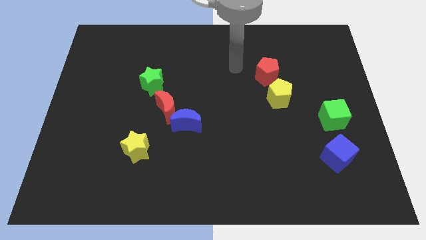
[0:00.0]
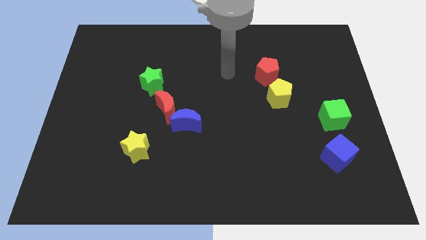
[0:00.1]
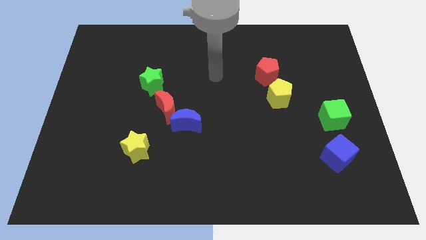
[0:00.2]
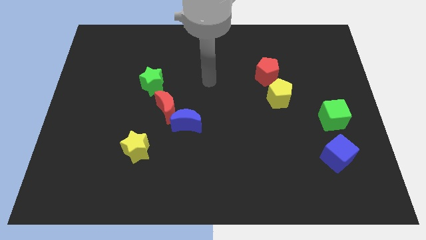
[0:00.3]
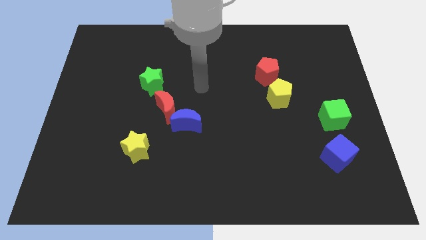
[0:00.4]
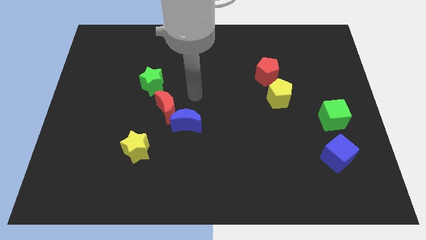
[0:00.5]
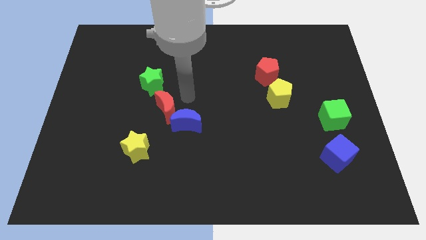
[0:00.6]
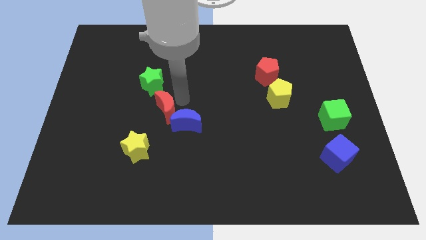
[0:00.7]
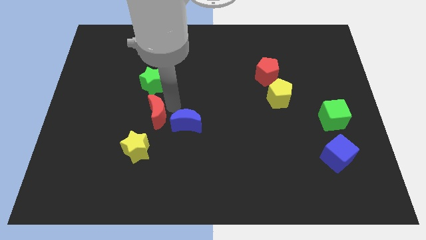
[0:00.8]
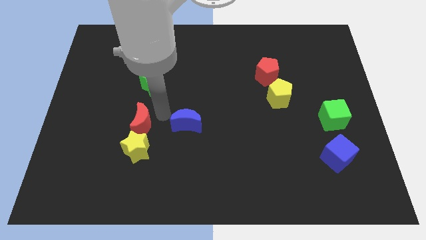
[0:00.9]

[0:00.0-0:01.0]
move the blue moon away from the red moon

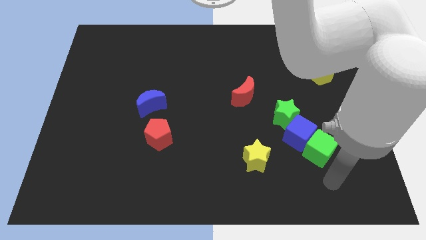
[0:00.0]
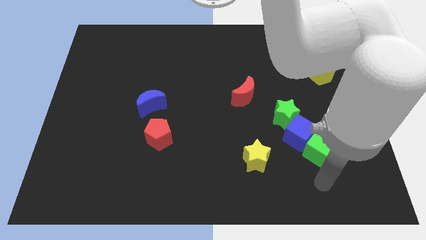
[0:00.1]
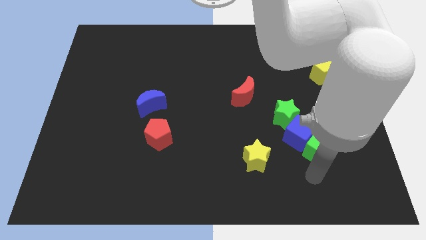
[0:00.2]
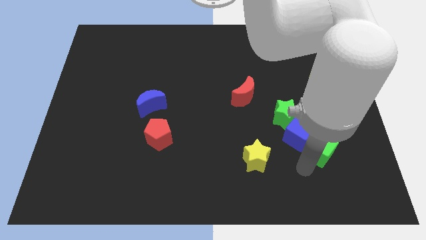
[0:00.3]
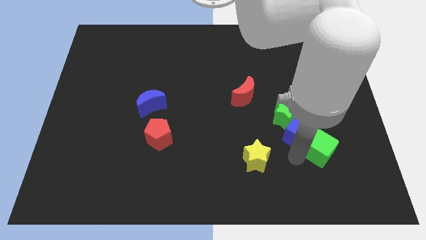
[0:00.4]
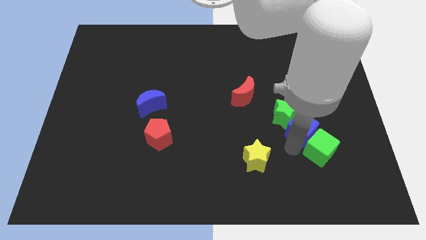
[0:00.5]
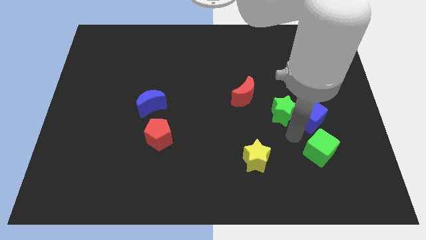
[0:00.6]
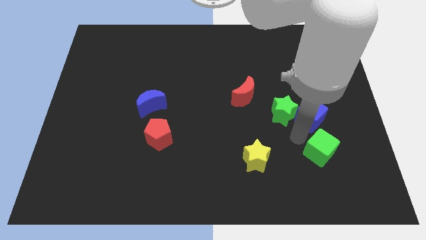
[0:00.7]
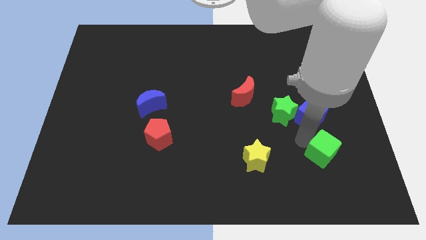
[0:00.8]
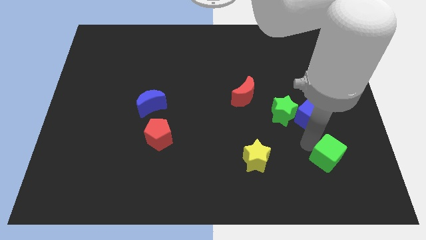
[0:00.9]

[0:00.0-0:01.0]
pull the green cube apart from the blue cube

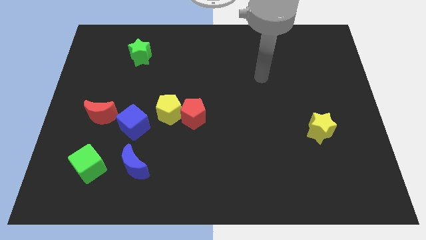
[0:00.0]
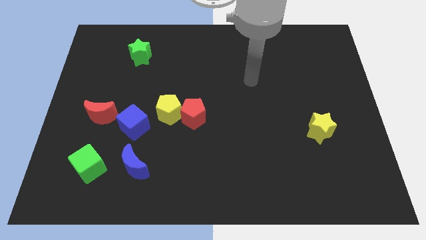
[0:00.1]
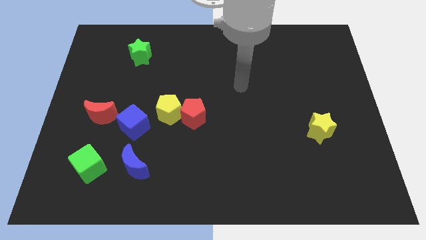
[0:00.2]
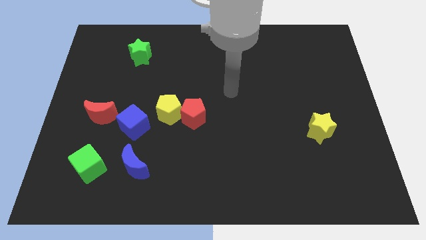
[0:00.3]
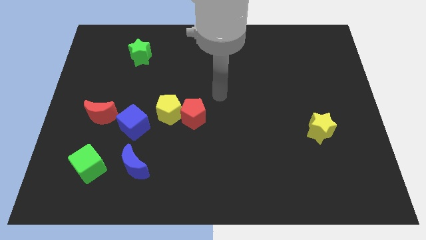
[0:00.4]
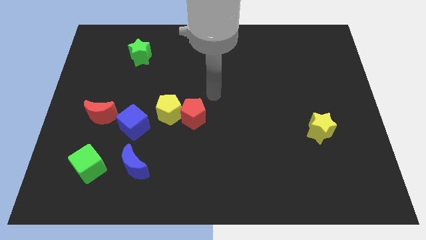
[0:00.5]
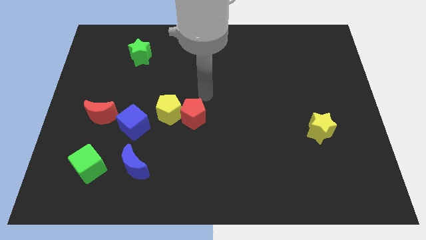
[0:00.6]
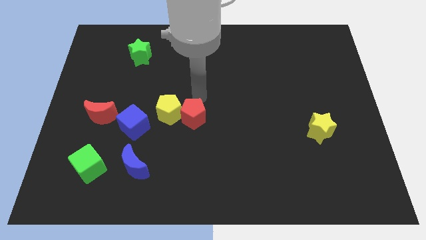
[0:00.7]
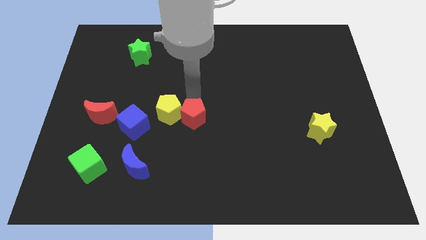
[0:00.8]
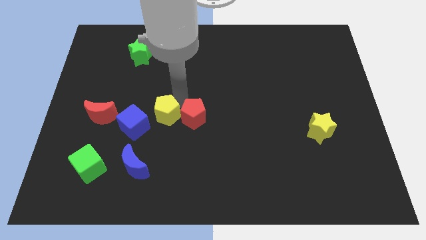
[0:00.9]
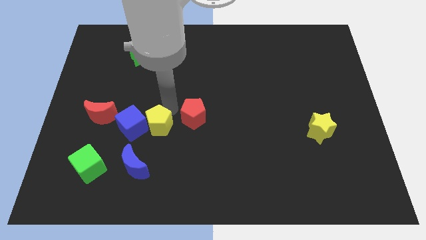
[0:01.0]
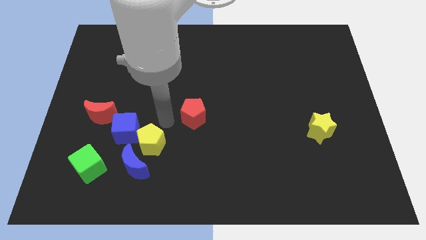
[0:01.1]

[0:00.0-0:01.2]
move the red pentagon away from the yellow pentagon

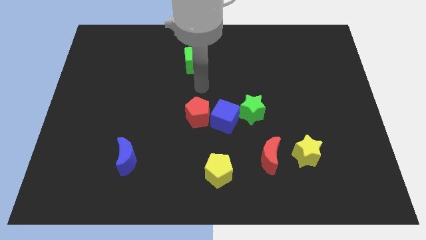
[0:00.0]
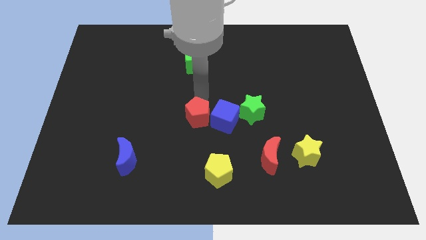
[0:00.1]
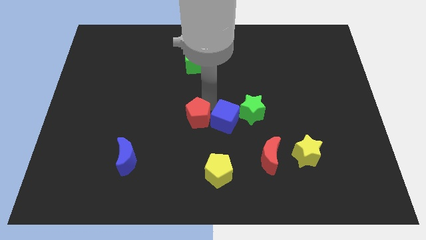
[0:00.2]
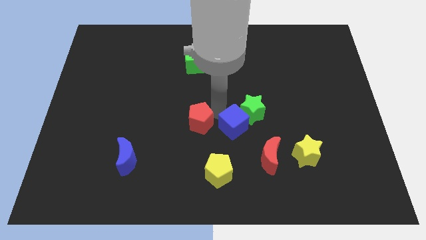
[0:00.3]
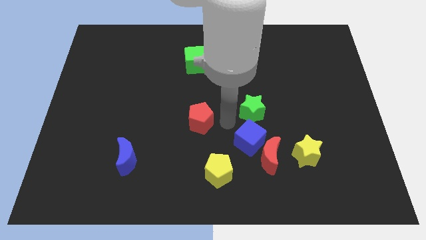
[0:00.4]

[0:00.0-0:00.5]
separate the red pentagon from the blue cube

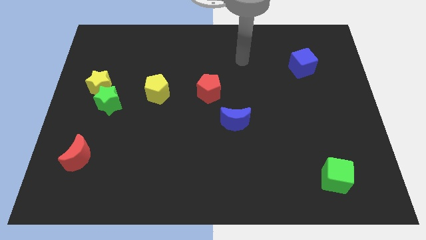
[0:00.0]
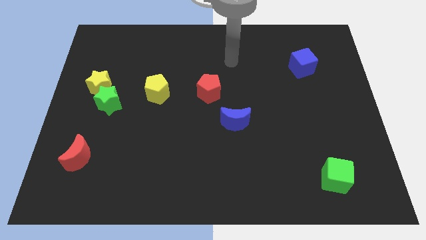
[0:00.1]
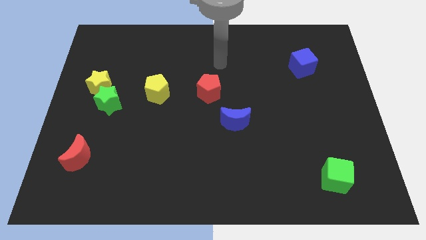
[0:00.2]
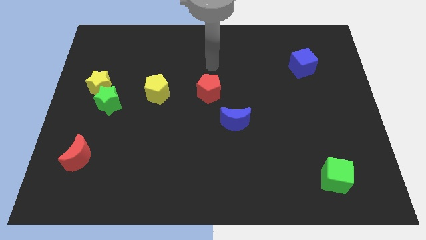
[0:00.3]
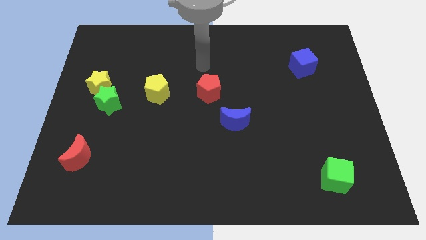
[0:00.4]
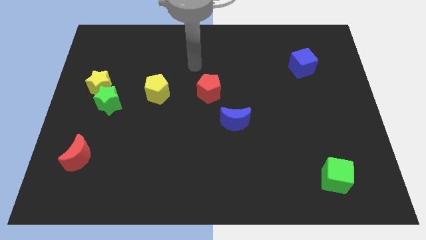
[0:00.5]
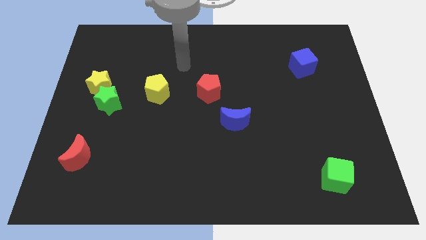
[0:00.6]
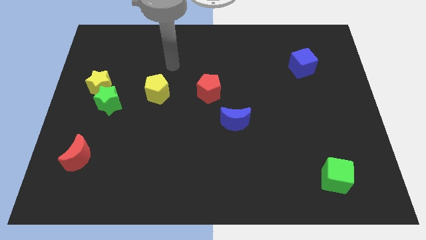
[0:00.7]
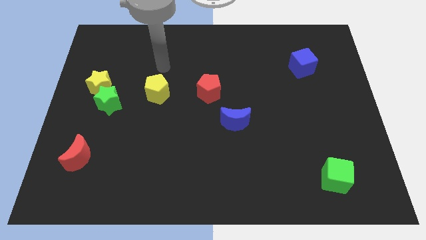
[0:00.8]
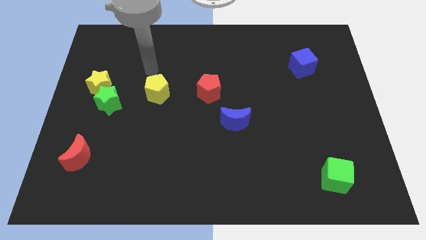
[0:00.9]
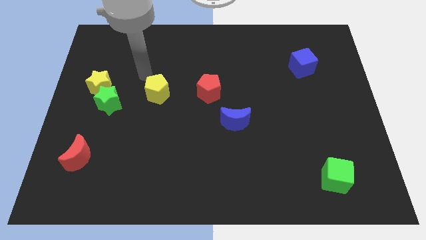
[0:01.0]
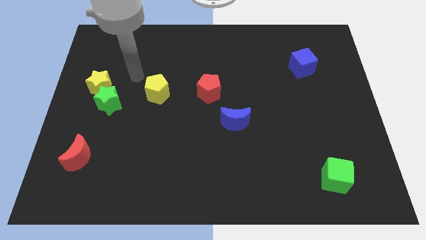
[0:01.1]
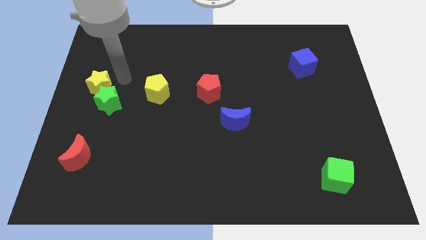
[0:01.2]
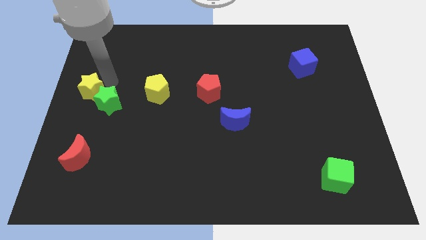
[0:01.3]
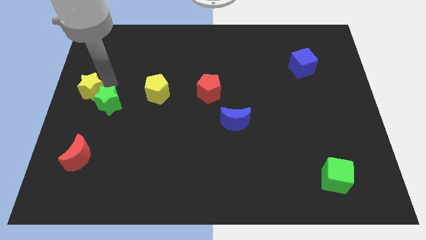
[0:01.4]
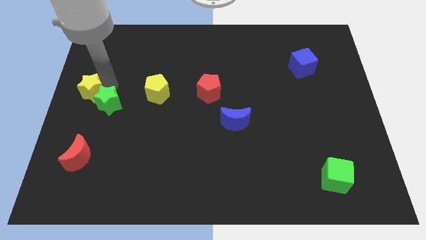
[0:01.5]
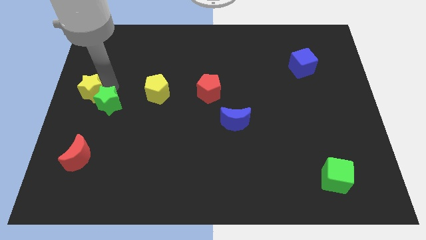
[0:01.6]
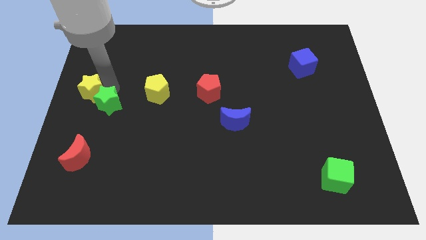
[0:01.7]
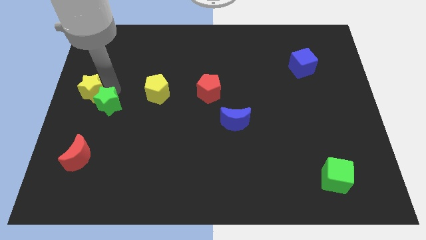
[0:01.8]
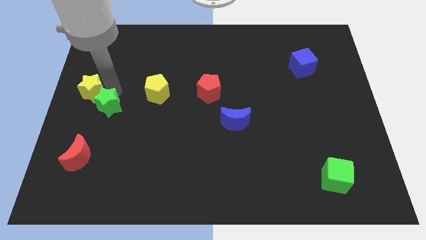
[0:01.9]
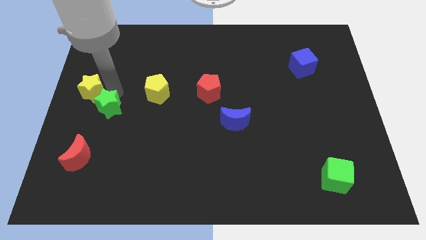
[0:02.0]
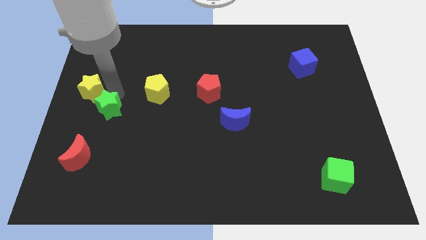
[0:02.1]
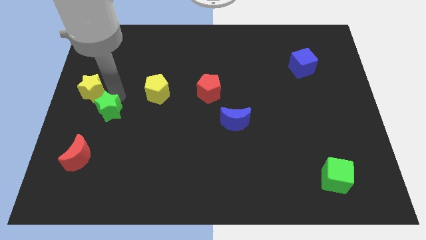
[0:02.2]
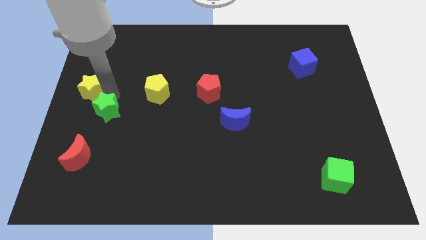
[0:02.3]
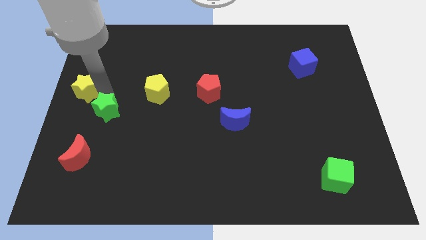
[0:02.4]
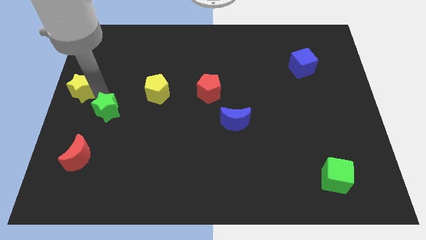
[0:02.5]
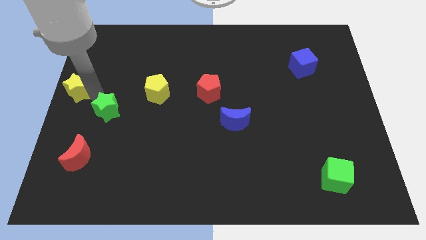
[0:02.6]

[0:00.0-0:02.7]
separate the green star from the yellow star

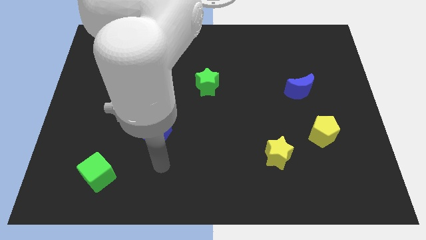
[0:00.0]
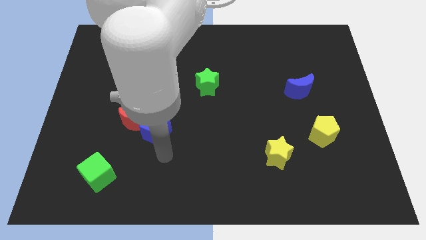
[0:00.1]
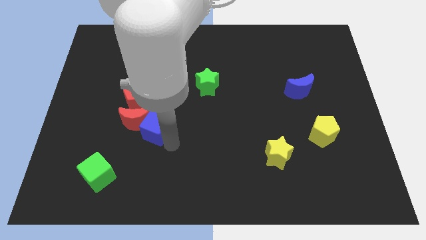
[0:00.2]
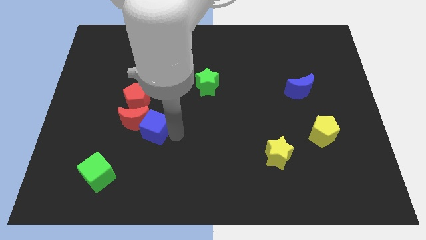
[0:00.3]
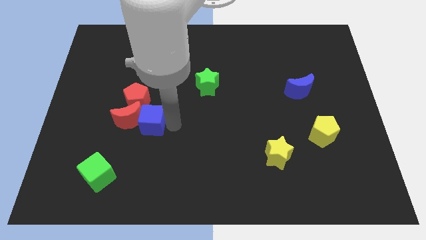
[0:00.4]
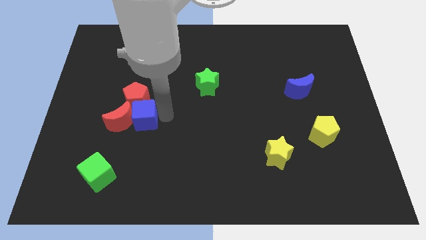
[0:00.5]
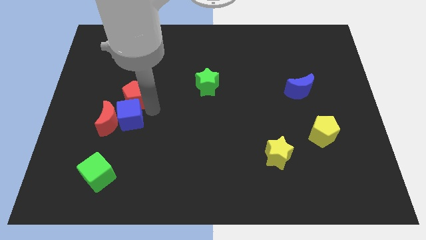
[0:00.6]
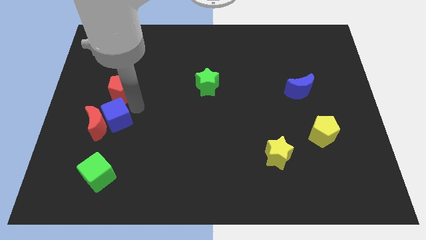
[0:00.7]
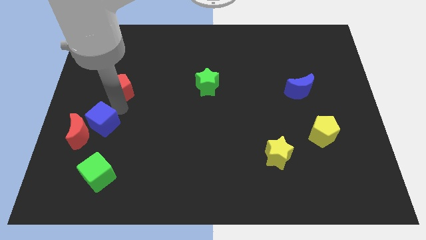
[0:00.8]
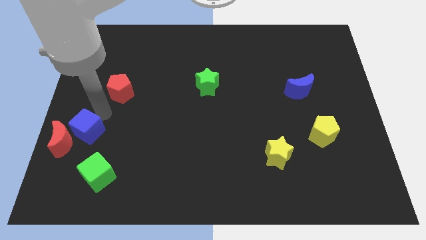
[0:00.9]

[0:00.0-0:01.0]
pull the red moon apart from the blue cube and red pentagon

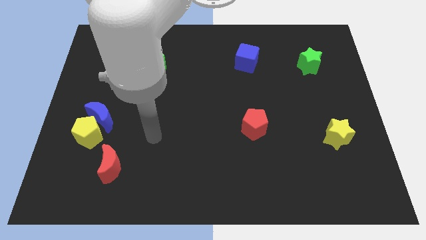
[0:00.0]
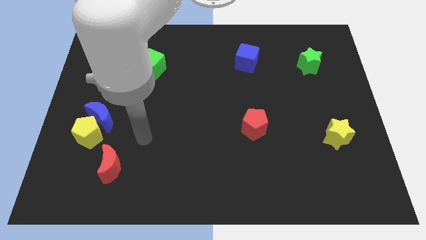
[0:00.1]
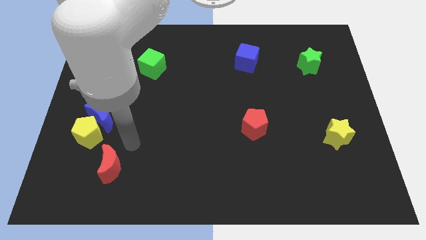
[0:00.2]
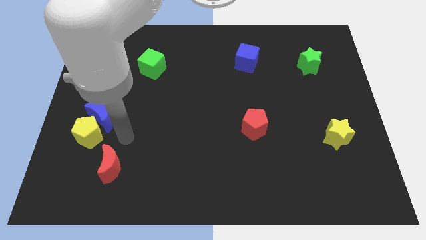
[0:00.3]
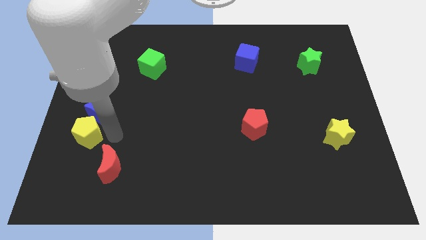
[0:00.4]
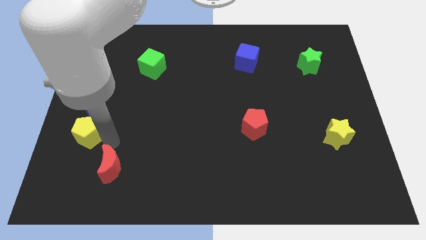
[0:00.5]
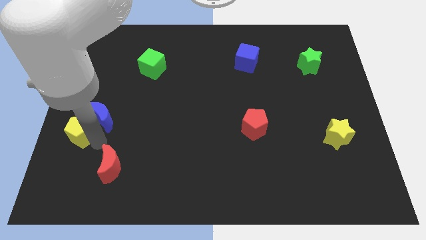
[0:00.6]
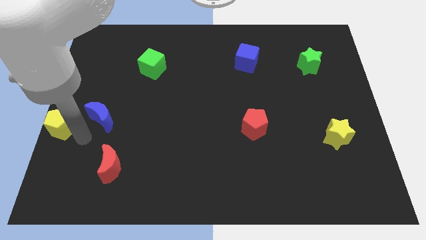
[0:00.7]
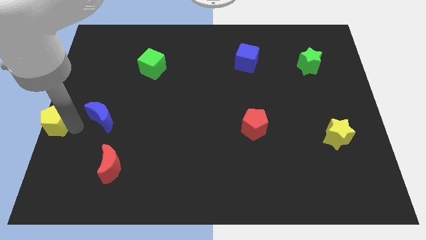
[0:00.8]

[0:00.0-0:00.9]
pull the blue moon apart from the yellow pentagon

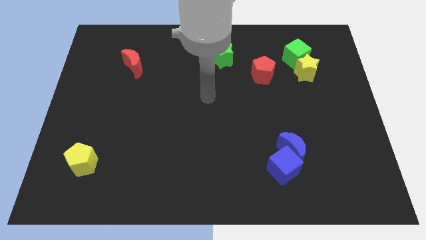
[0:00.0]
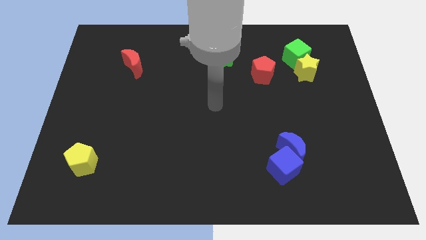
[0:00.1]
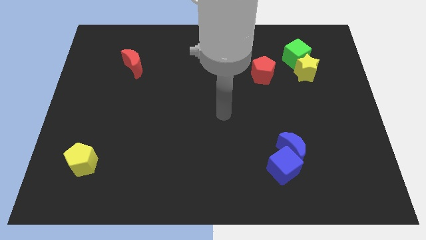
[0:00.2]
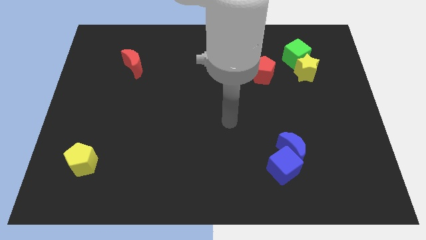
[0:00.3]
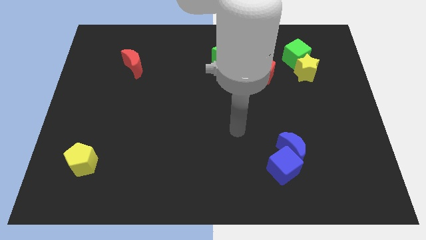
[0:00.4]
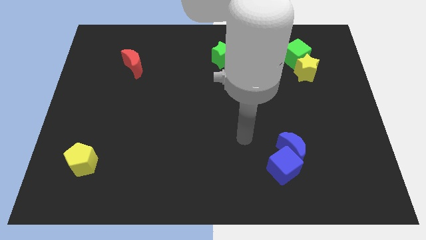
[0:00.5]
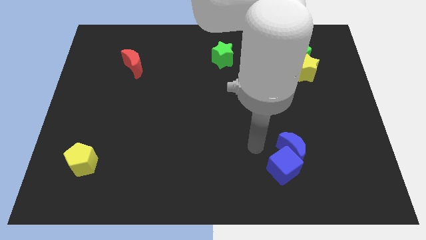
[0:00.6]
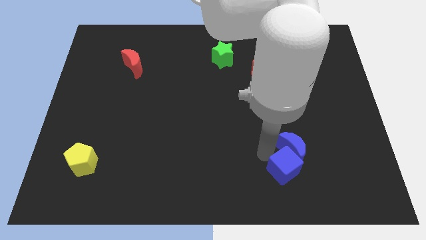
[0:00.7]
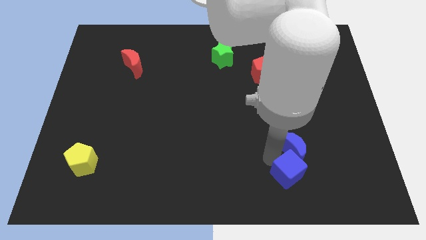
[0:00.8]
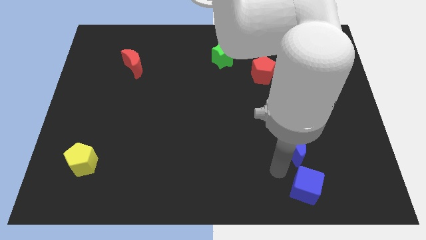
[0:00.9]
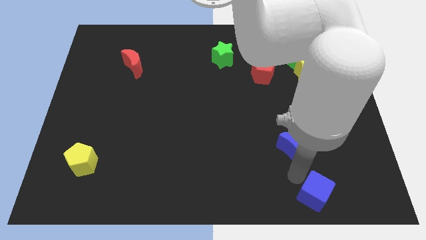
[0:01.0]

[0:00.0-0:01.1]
pull the blue moon apart from the blue cube

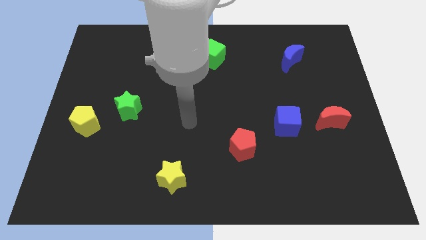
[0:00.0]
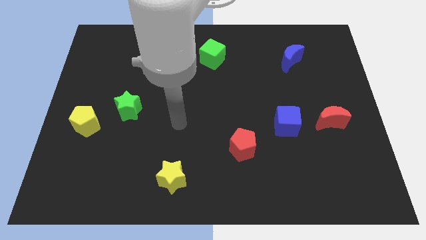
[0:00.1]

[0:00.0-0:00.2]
move the green star away from the yellow pentagon
